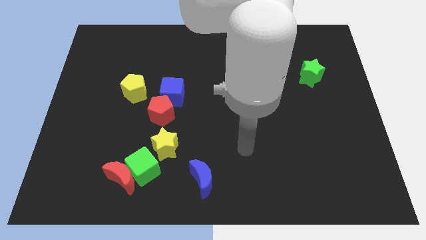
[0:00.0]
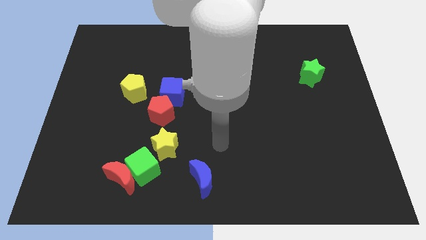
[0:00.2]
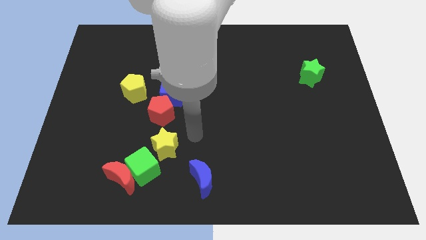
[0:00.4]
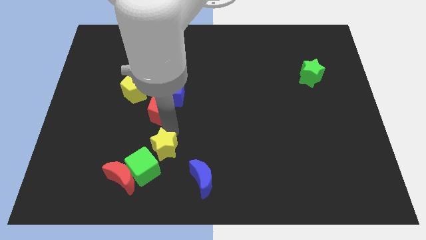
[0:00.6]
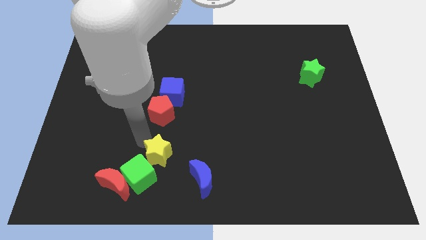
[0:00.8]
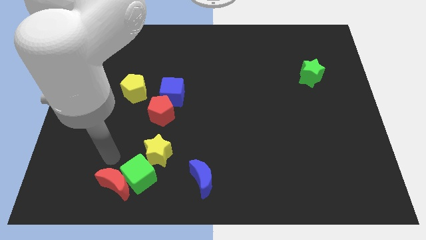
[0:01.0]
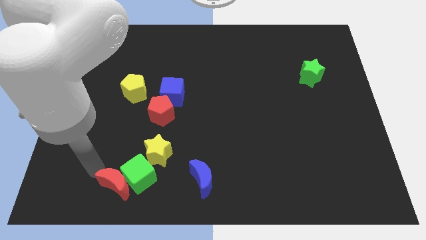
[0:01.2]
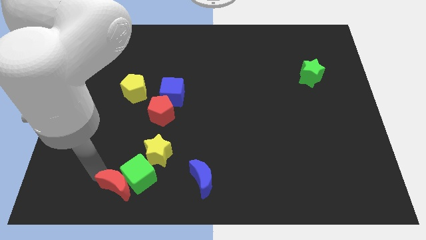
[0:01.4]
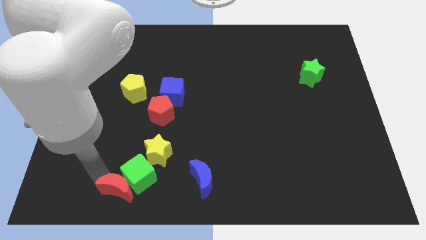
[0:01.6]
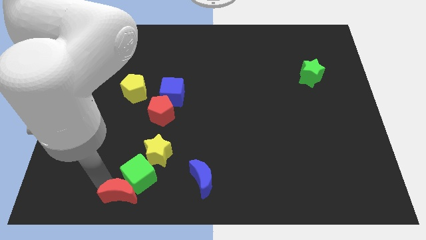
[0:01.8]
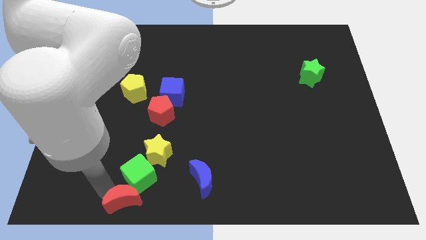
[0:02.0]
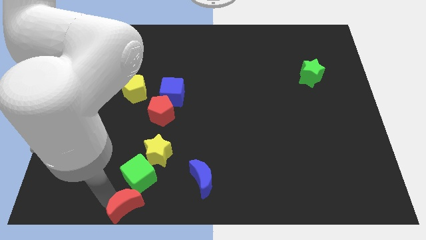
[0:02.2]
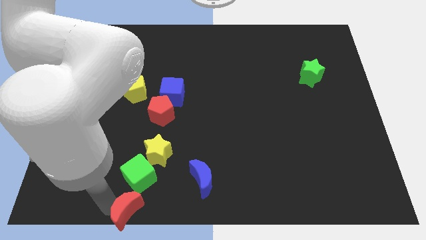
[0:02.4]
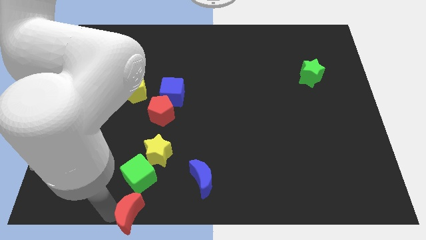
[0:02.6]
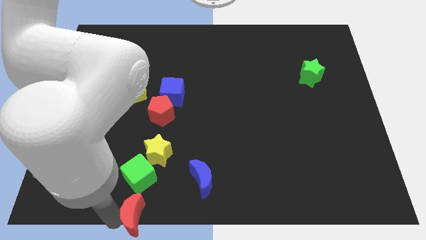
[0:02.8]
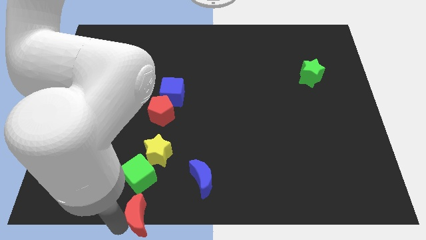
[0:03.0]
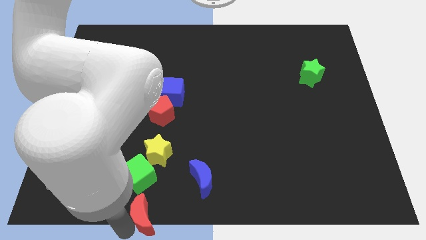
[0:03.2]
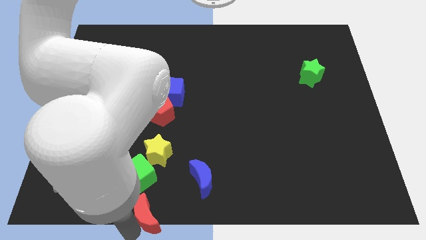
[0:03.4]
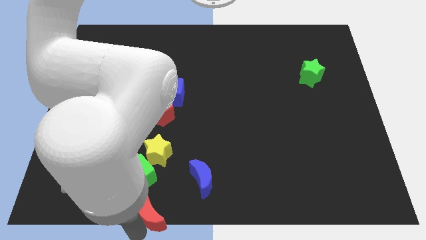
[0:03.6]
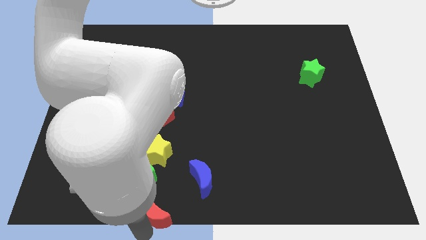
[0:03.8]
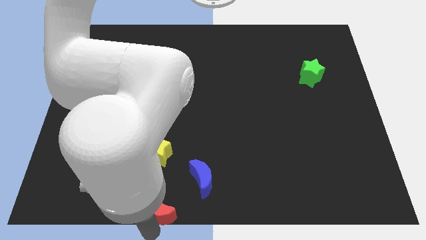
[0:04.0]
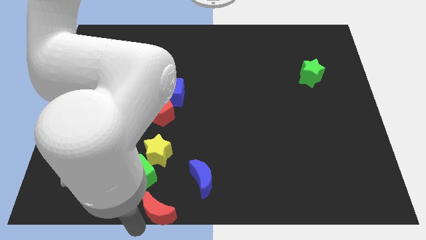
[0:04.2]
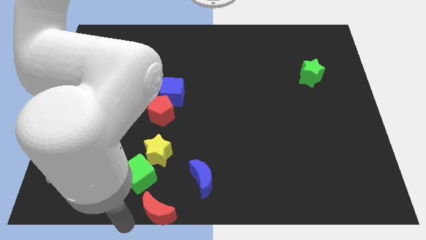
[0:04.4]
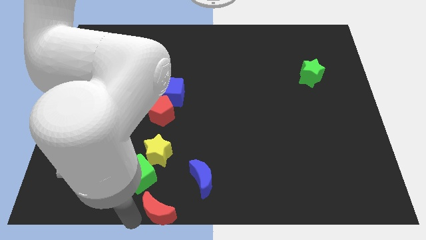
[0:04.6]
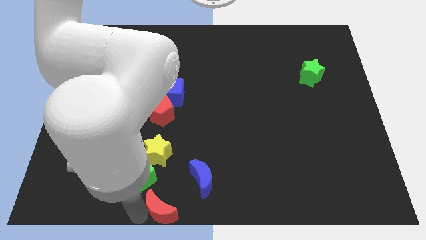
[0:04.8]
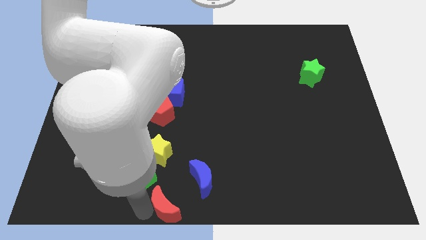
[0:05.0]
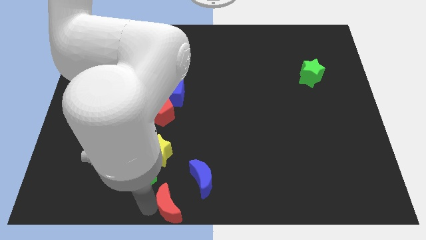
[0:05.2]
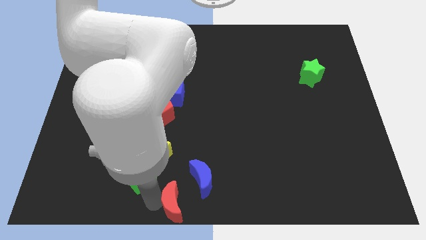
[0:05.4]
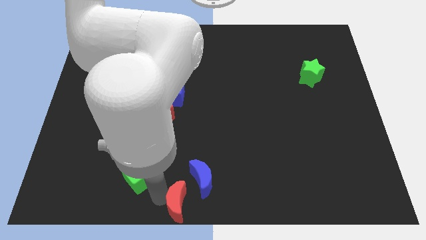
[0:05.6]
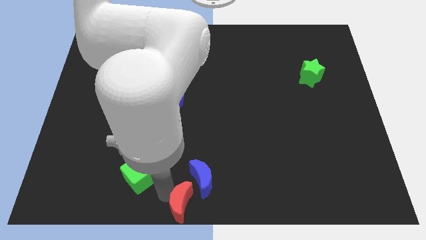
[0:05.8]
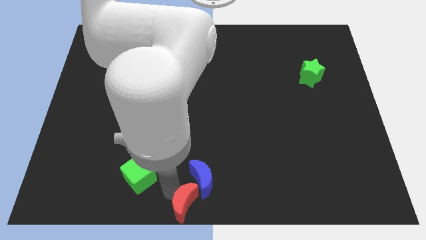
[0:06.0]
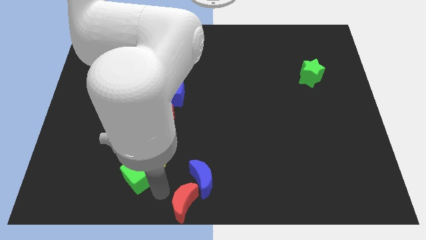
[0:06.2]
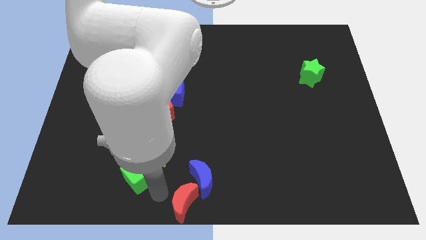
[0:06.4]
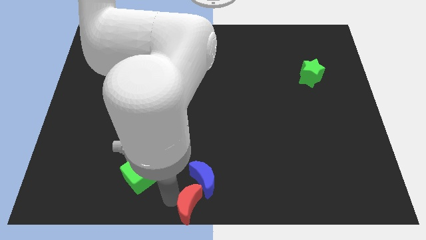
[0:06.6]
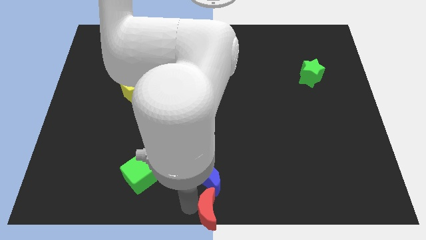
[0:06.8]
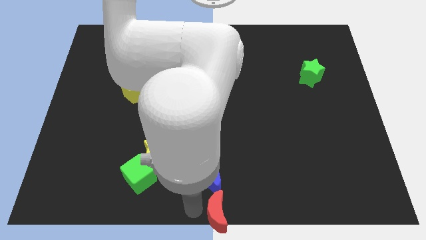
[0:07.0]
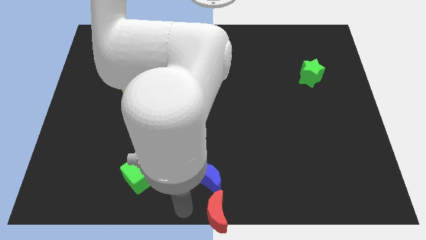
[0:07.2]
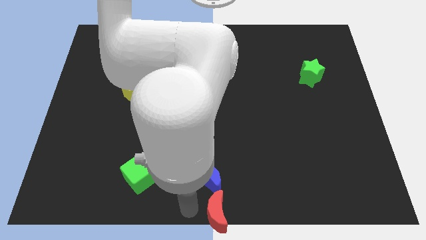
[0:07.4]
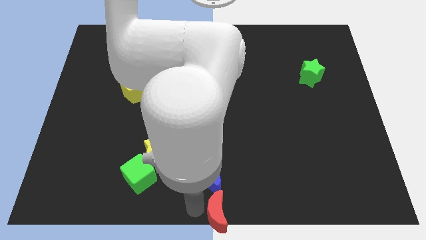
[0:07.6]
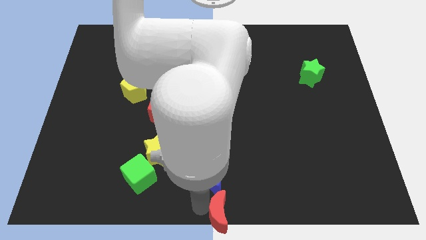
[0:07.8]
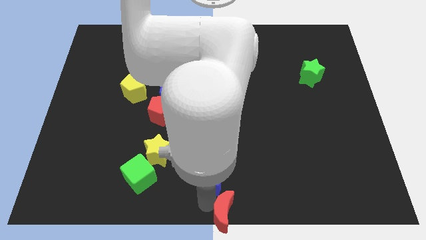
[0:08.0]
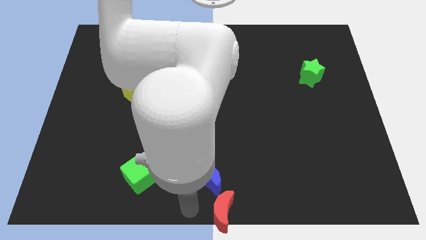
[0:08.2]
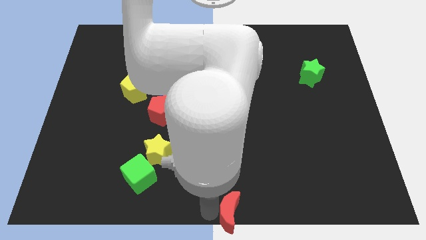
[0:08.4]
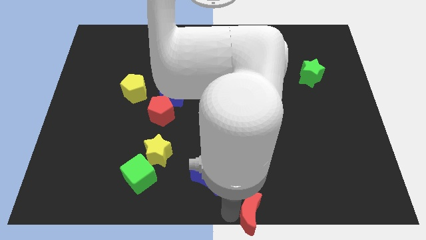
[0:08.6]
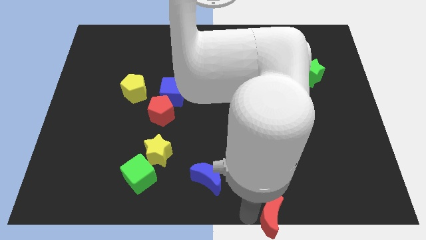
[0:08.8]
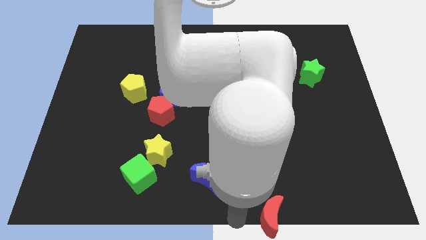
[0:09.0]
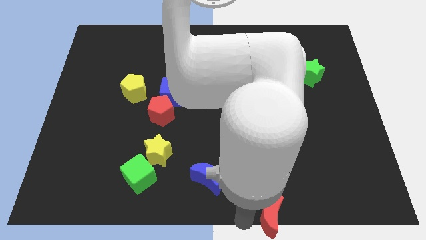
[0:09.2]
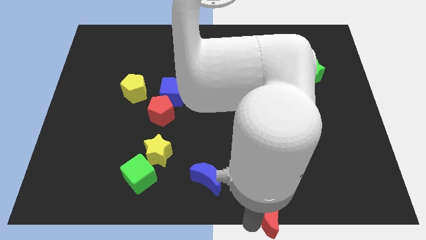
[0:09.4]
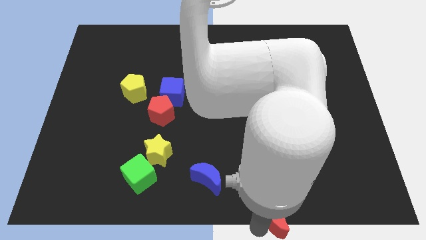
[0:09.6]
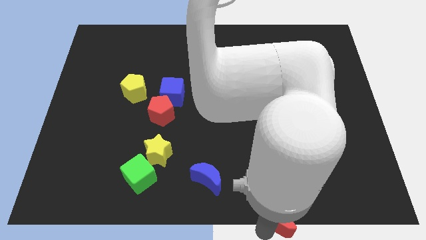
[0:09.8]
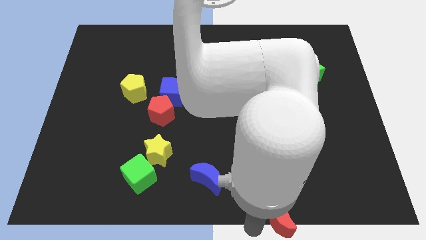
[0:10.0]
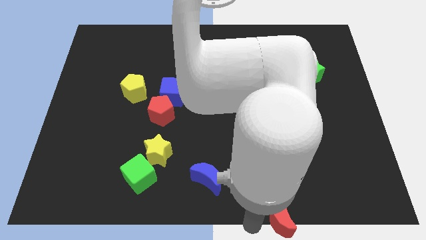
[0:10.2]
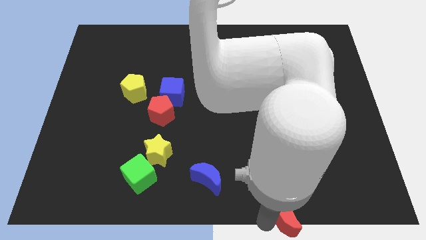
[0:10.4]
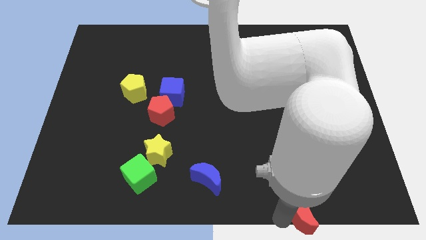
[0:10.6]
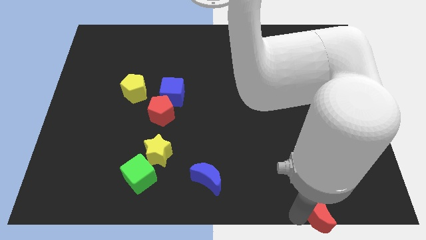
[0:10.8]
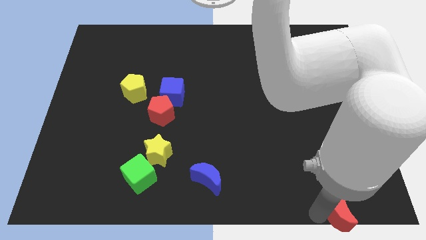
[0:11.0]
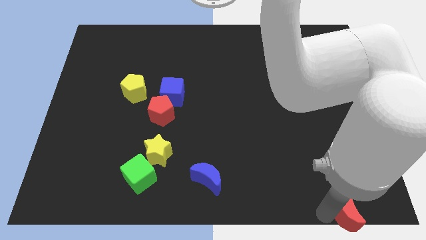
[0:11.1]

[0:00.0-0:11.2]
put the red moon to the bottom right of the board
